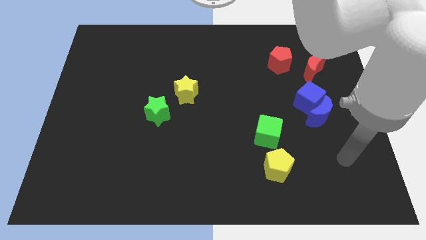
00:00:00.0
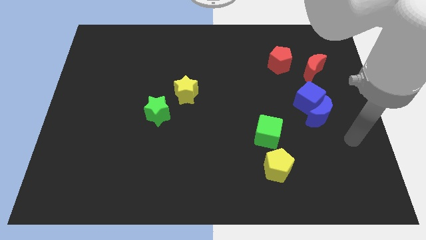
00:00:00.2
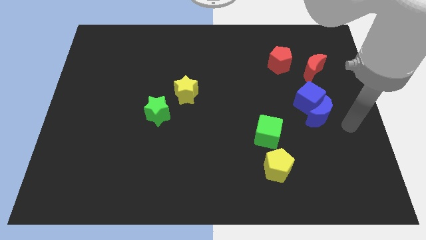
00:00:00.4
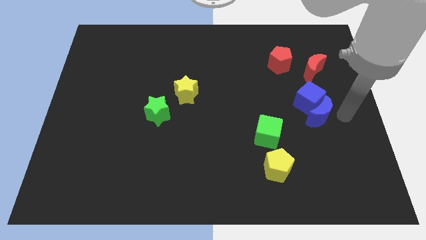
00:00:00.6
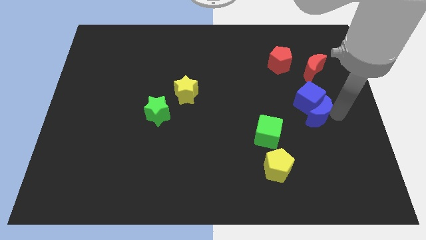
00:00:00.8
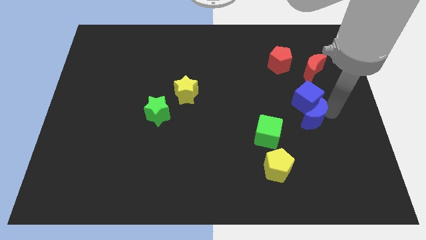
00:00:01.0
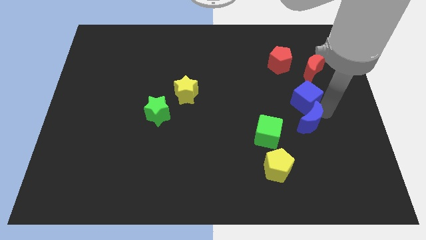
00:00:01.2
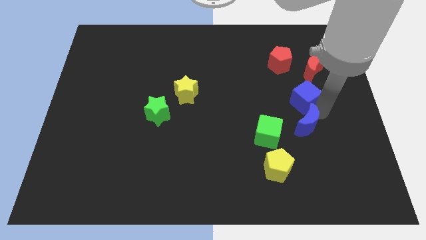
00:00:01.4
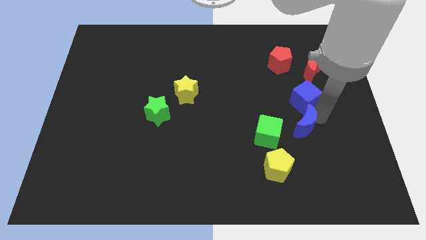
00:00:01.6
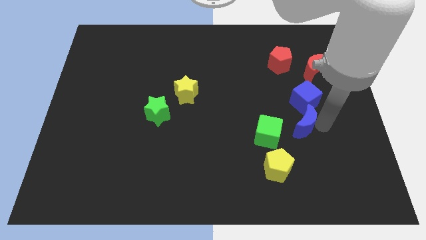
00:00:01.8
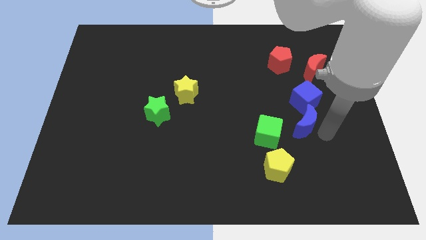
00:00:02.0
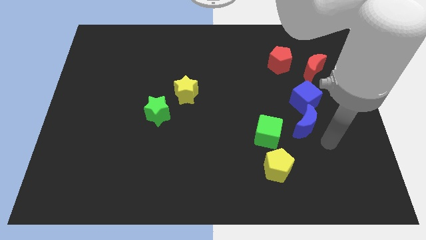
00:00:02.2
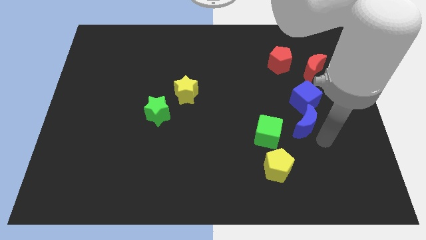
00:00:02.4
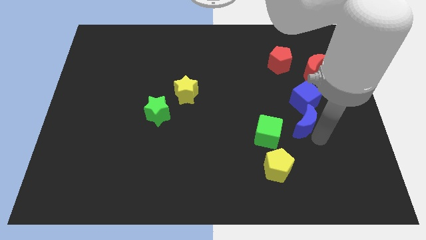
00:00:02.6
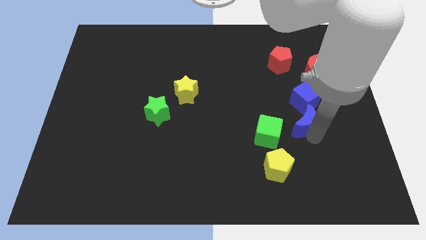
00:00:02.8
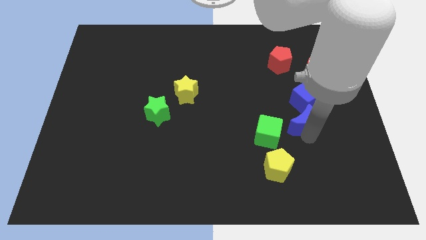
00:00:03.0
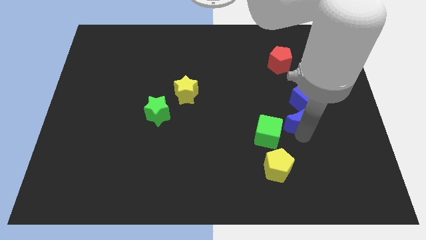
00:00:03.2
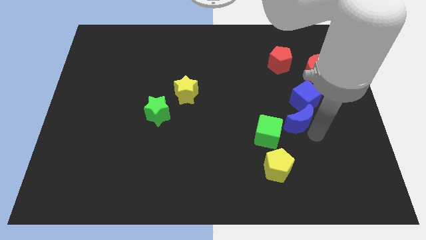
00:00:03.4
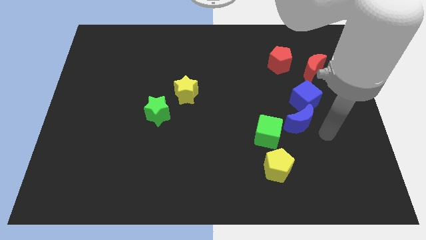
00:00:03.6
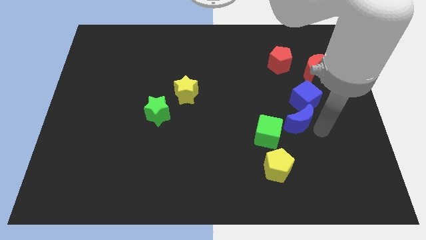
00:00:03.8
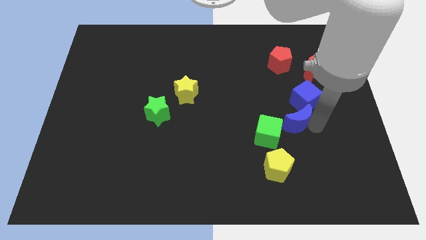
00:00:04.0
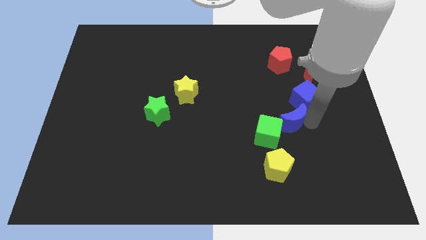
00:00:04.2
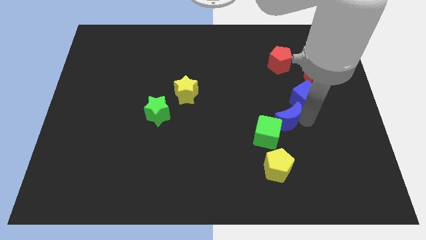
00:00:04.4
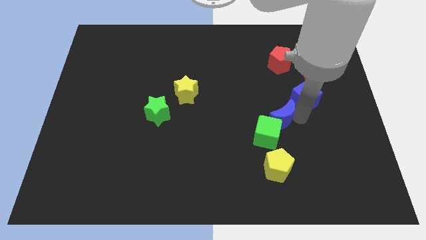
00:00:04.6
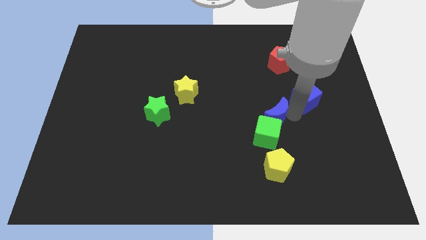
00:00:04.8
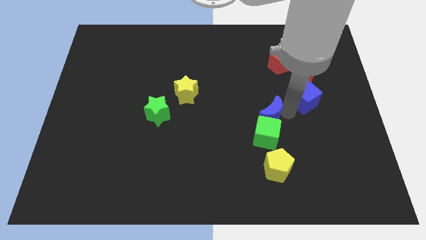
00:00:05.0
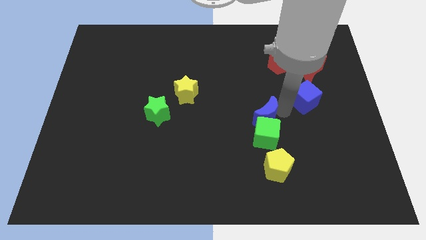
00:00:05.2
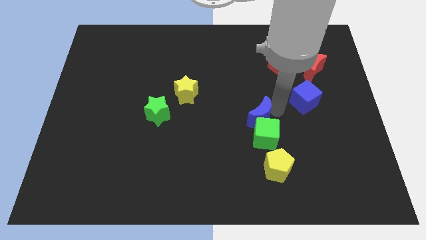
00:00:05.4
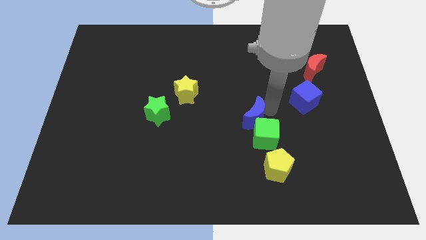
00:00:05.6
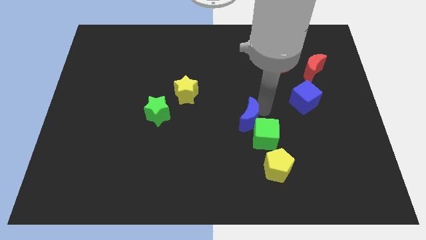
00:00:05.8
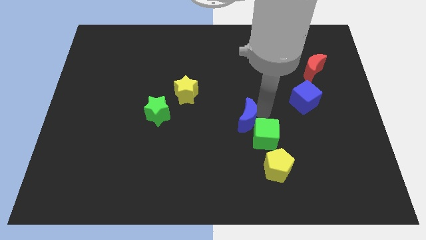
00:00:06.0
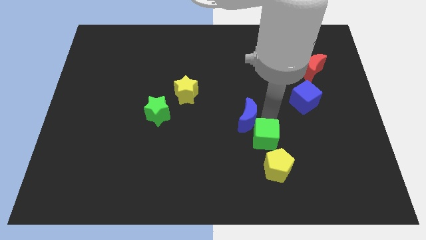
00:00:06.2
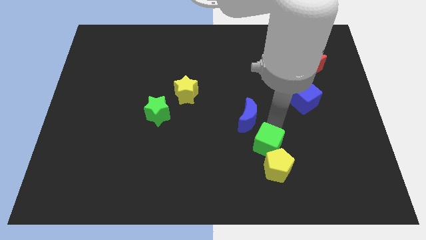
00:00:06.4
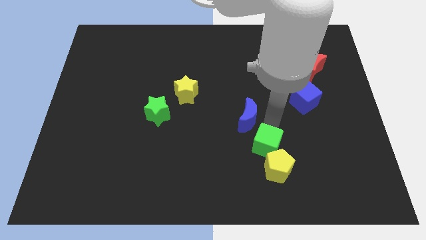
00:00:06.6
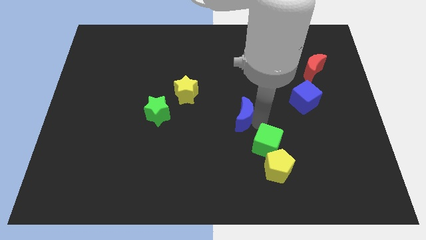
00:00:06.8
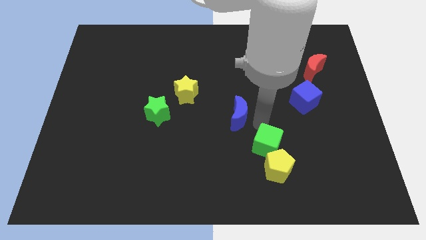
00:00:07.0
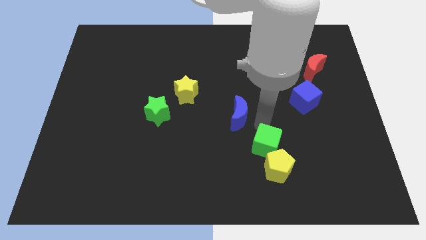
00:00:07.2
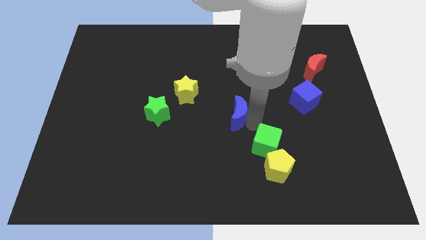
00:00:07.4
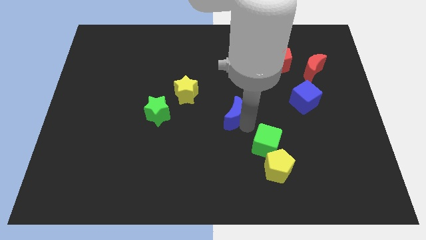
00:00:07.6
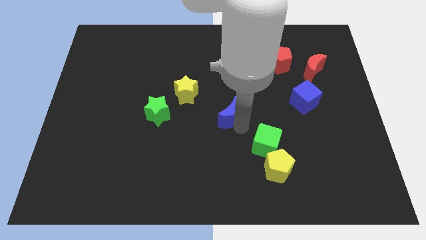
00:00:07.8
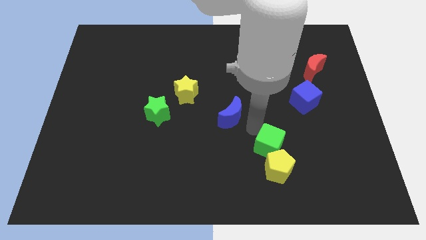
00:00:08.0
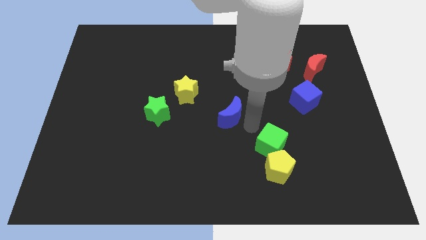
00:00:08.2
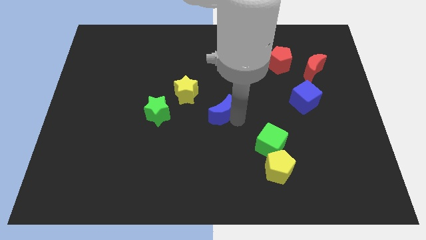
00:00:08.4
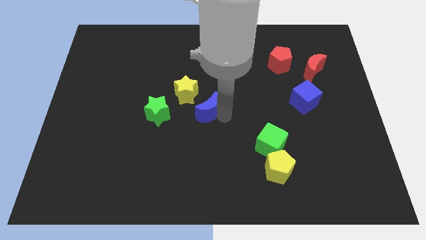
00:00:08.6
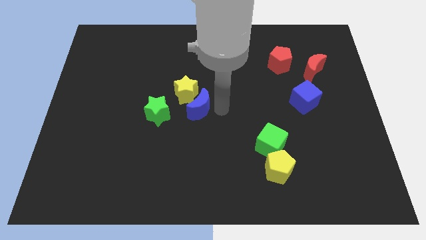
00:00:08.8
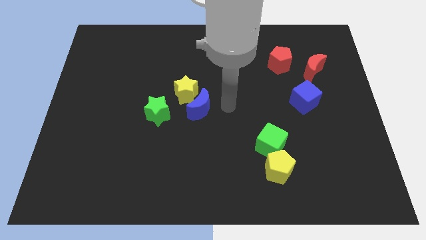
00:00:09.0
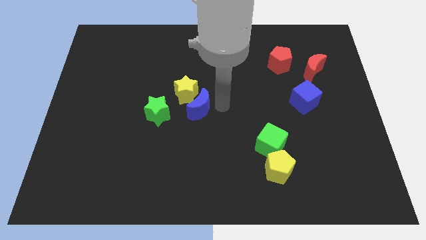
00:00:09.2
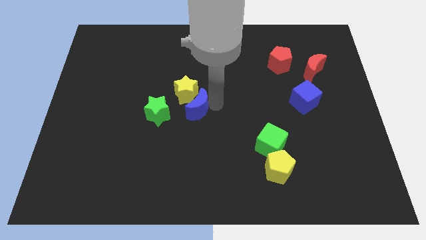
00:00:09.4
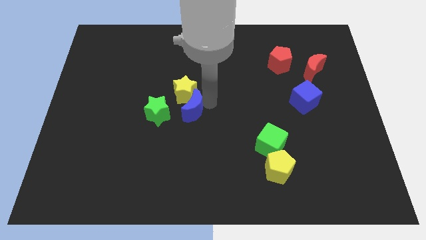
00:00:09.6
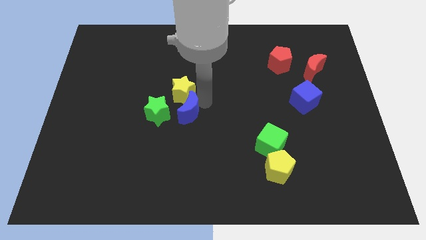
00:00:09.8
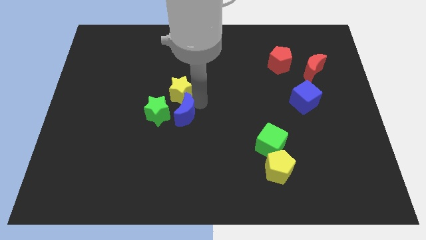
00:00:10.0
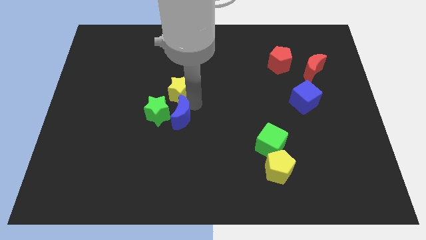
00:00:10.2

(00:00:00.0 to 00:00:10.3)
push the blue moon close to the green star

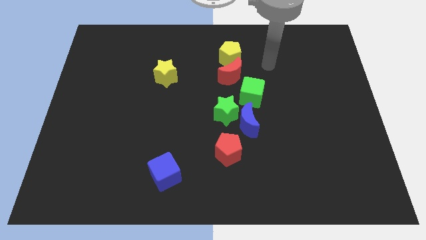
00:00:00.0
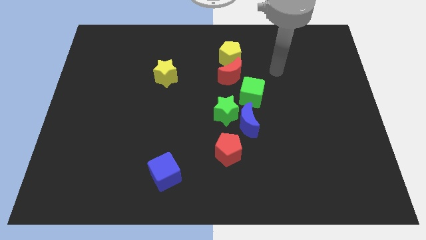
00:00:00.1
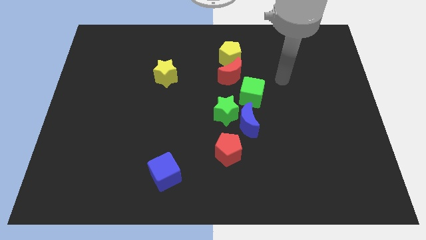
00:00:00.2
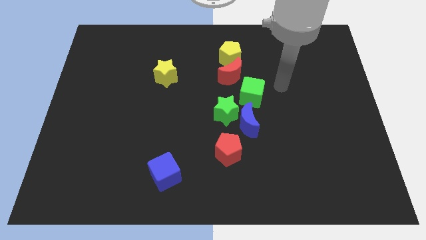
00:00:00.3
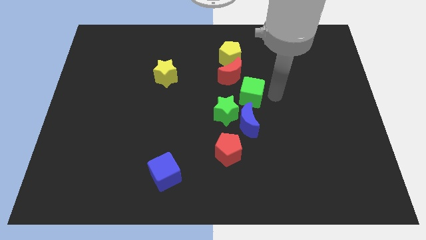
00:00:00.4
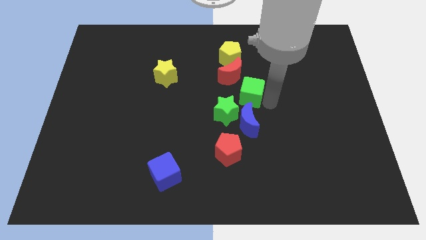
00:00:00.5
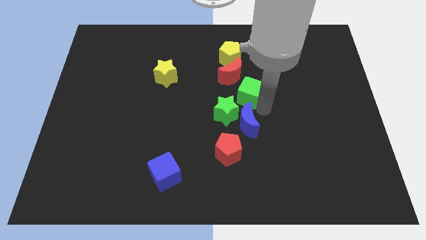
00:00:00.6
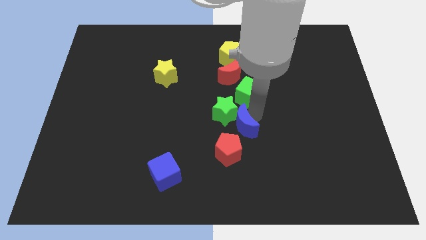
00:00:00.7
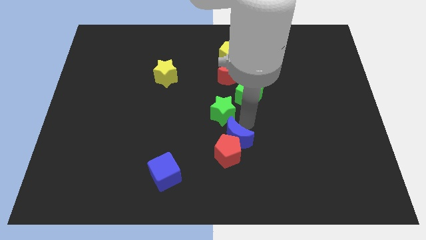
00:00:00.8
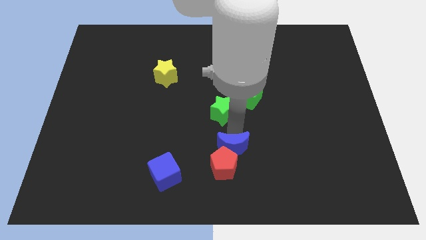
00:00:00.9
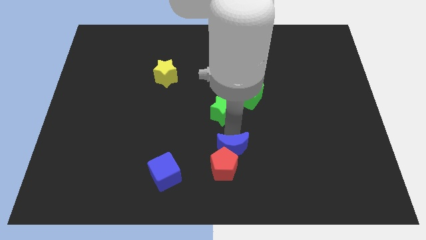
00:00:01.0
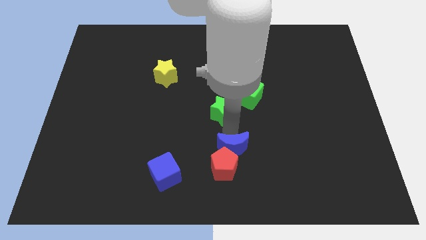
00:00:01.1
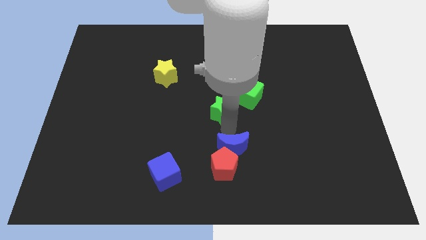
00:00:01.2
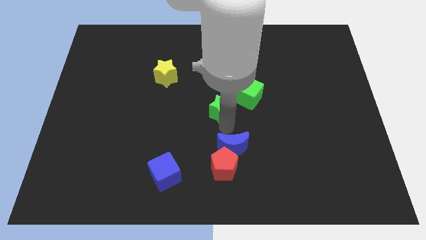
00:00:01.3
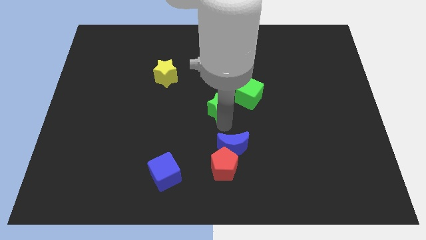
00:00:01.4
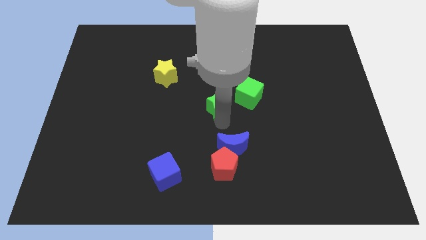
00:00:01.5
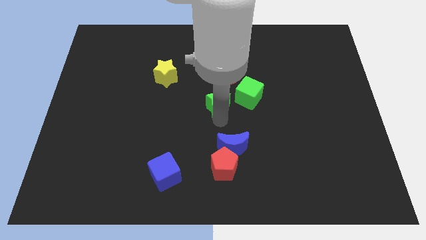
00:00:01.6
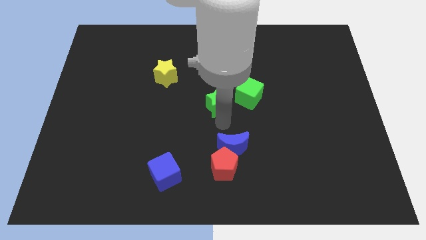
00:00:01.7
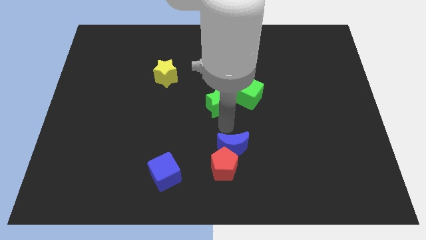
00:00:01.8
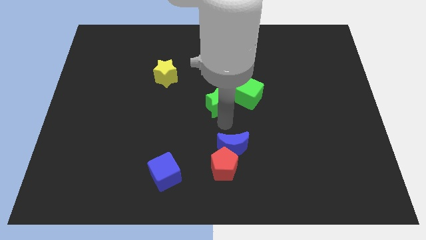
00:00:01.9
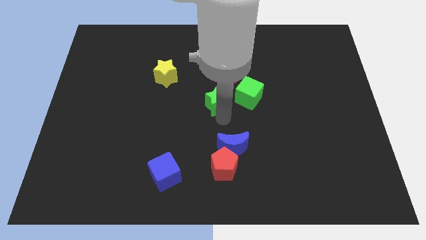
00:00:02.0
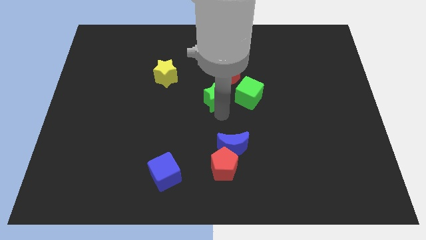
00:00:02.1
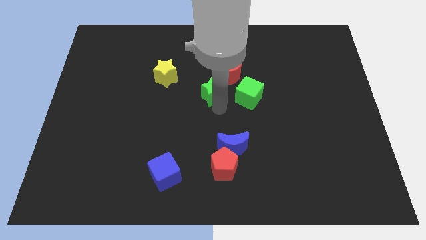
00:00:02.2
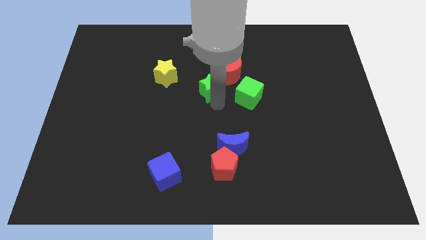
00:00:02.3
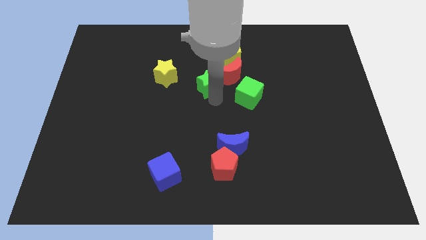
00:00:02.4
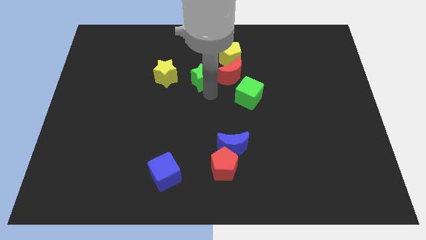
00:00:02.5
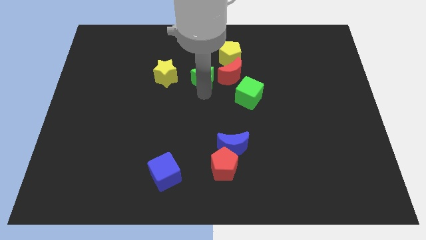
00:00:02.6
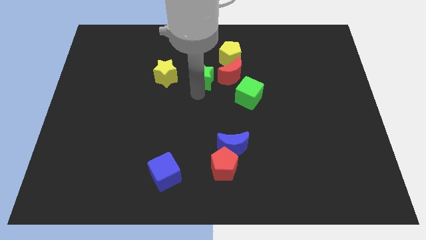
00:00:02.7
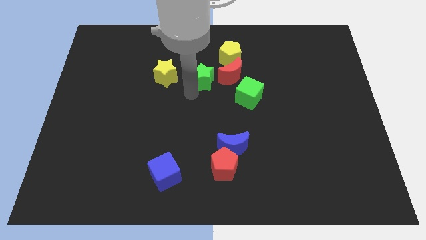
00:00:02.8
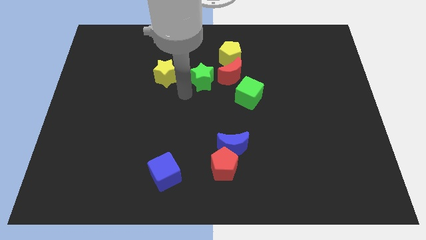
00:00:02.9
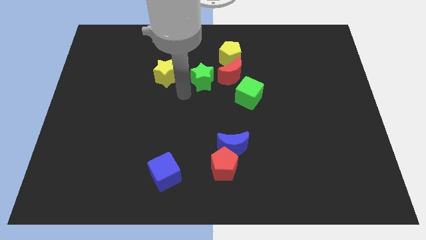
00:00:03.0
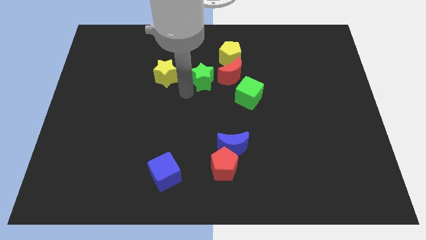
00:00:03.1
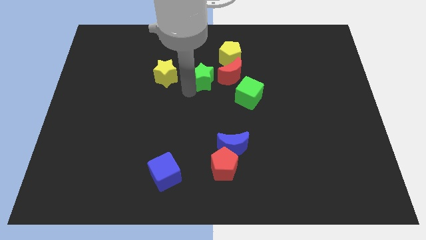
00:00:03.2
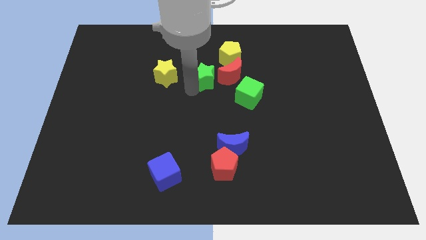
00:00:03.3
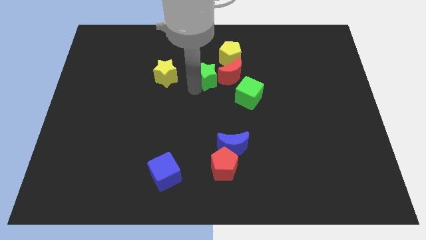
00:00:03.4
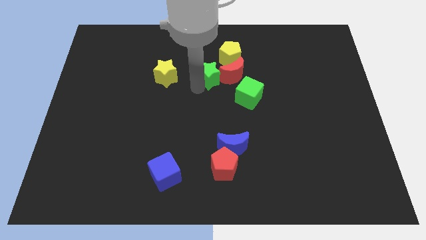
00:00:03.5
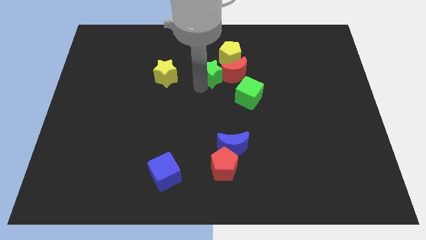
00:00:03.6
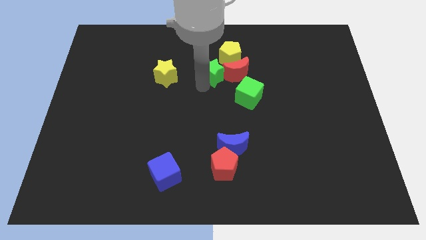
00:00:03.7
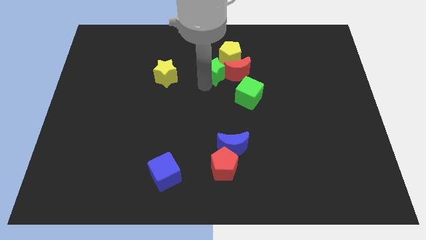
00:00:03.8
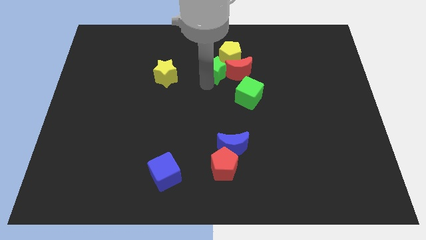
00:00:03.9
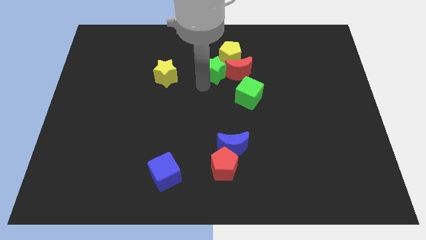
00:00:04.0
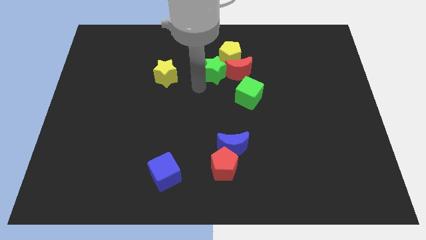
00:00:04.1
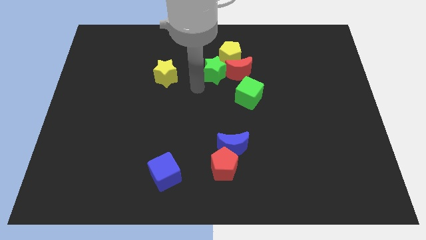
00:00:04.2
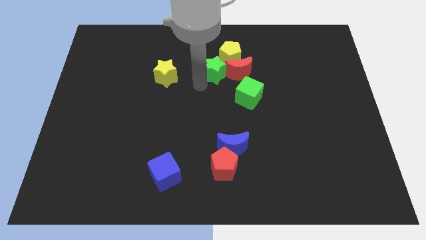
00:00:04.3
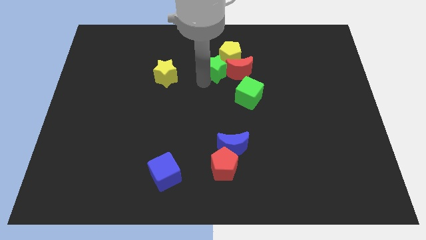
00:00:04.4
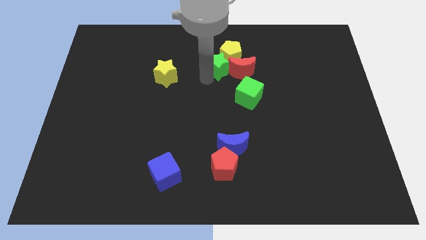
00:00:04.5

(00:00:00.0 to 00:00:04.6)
slide the green star next to the yellow pentagon
